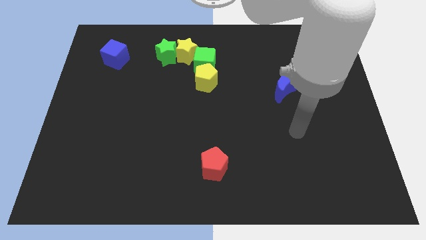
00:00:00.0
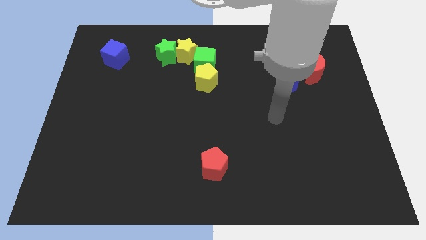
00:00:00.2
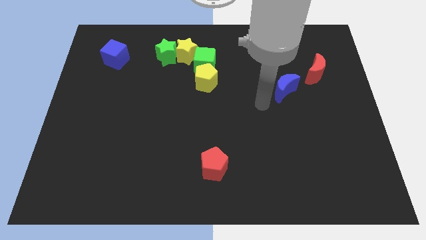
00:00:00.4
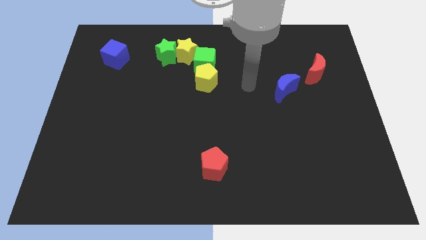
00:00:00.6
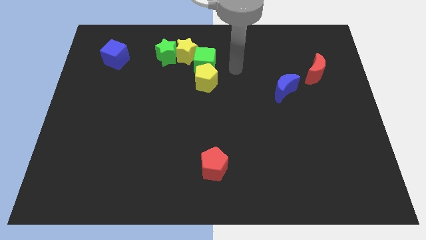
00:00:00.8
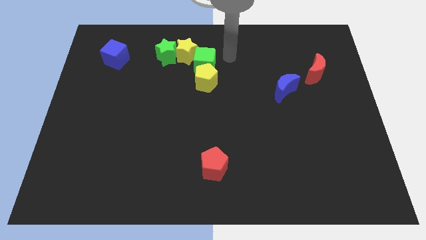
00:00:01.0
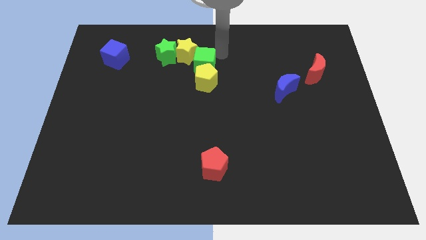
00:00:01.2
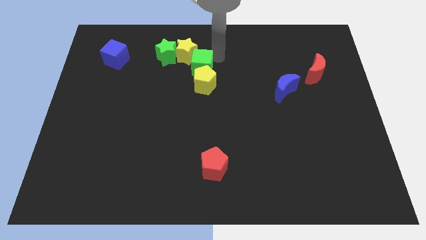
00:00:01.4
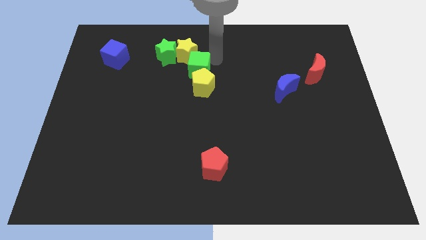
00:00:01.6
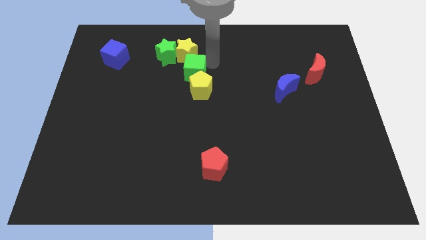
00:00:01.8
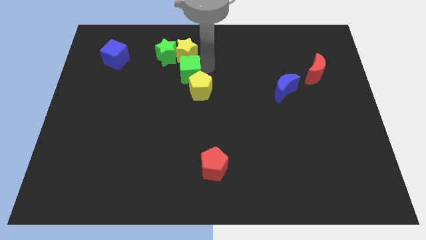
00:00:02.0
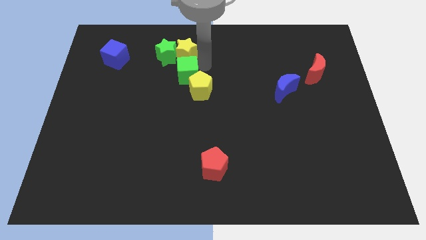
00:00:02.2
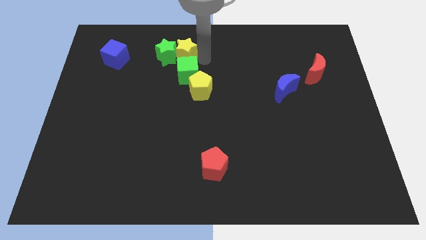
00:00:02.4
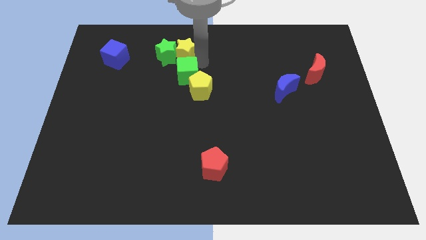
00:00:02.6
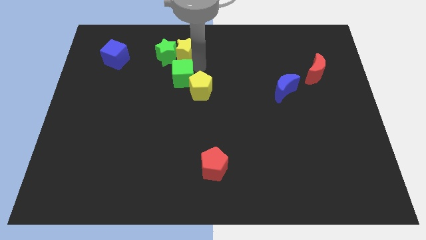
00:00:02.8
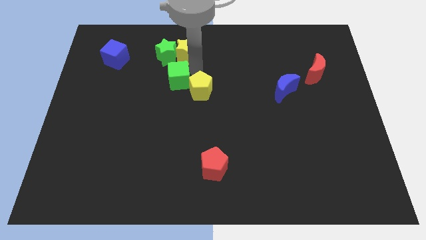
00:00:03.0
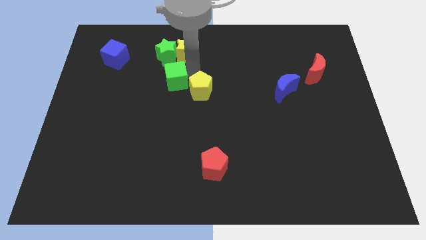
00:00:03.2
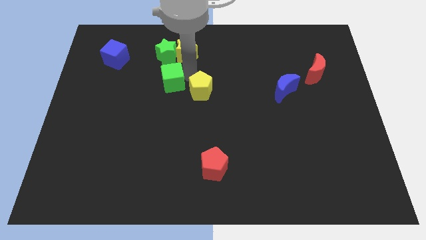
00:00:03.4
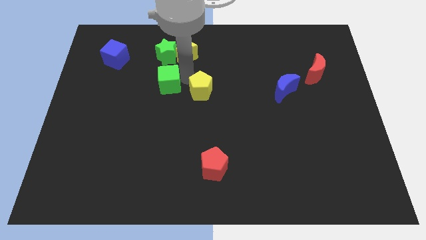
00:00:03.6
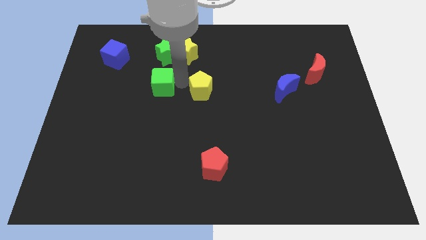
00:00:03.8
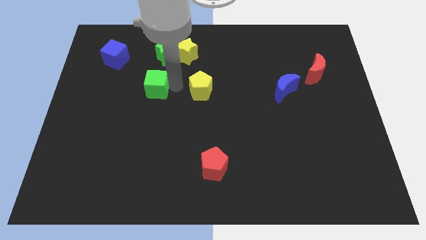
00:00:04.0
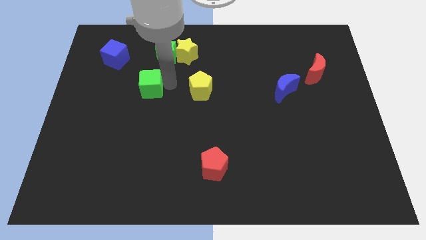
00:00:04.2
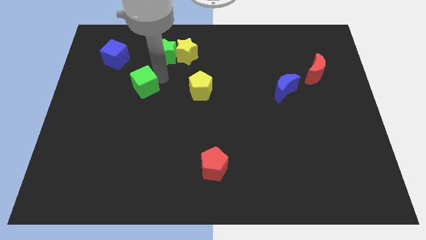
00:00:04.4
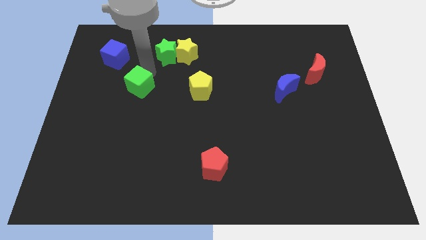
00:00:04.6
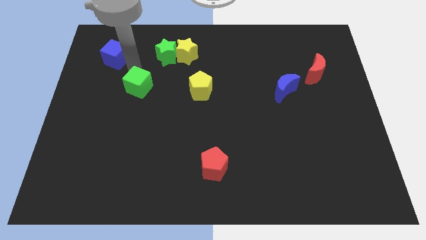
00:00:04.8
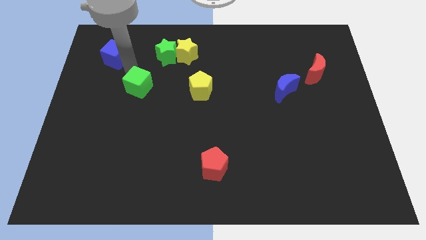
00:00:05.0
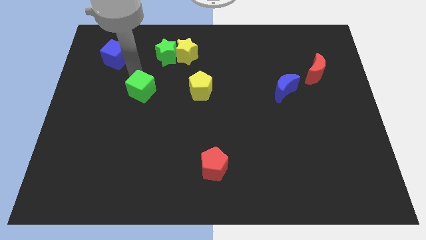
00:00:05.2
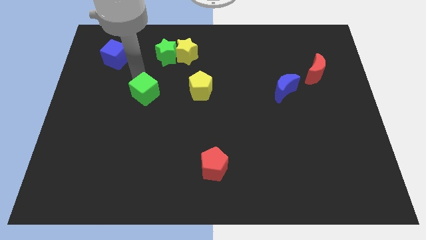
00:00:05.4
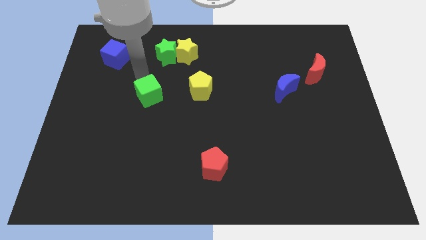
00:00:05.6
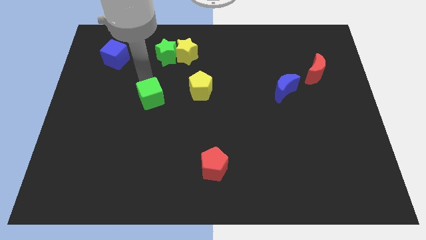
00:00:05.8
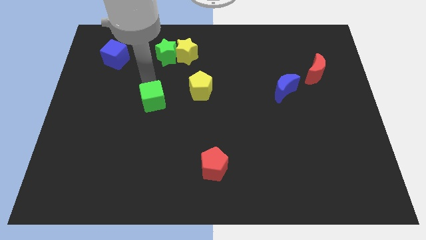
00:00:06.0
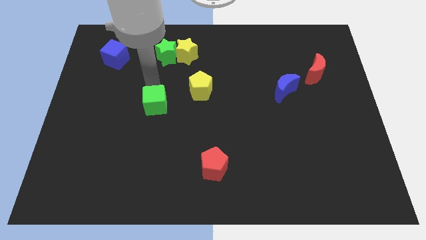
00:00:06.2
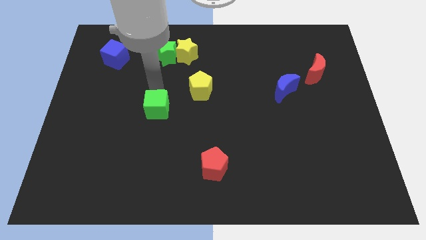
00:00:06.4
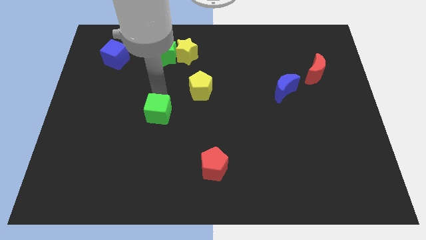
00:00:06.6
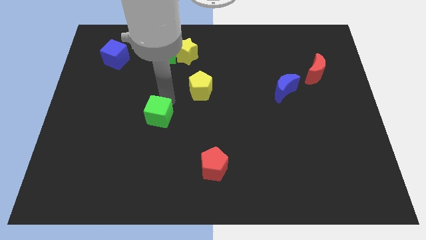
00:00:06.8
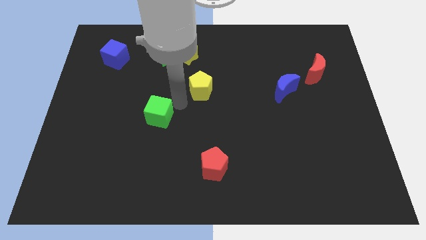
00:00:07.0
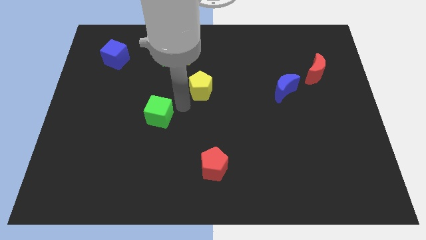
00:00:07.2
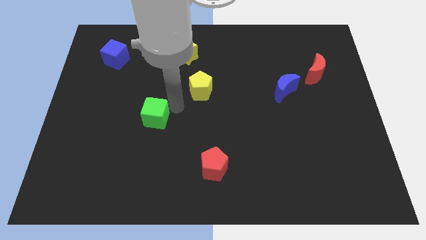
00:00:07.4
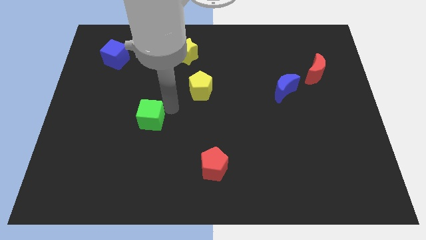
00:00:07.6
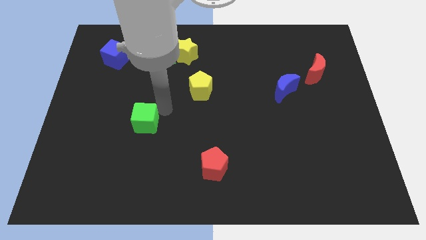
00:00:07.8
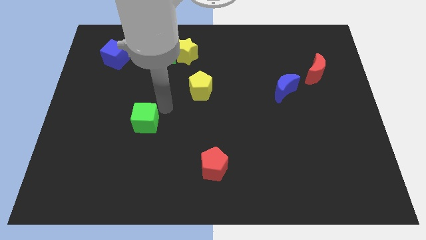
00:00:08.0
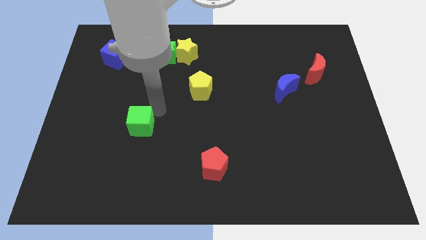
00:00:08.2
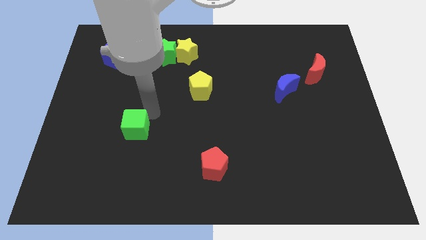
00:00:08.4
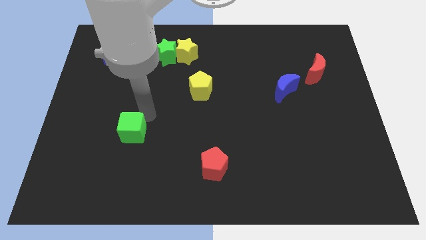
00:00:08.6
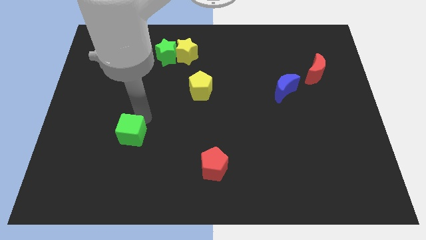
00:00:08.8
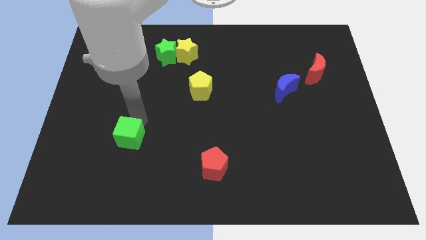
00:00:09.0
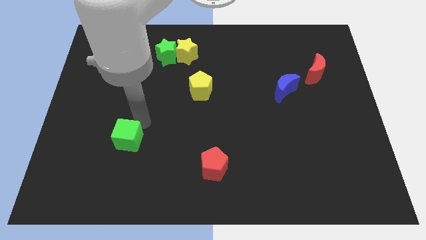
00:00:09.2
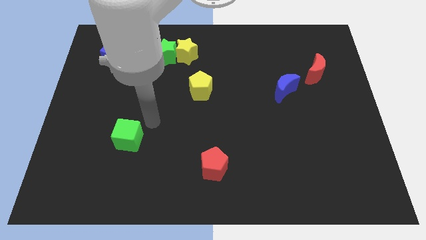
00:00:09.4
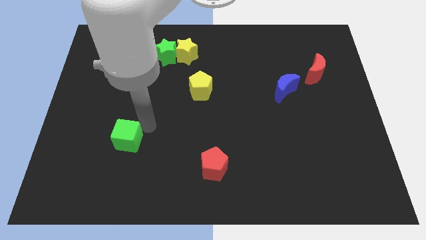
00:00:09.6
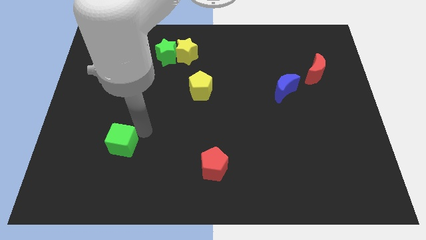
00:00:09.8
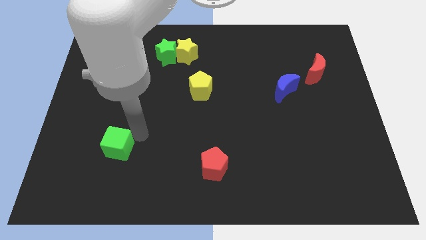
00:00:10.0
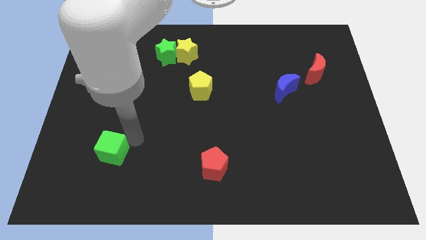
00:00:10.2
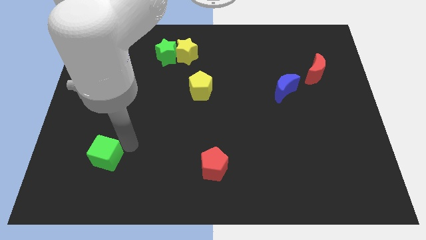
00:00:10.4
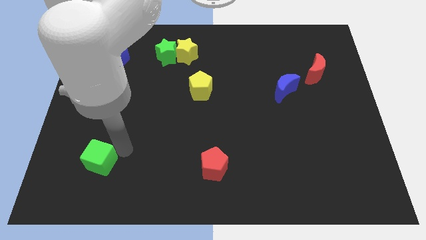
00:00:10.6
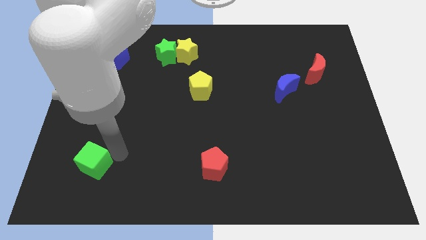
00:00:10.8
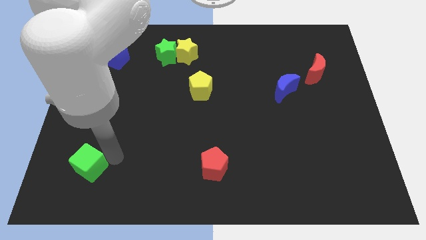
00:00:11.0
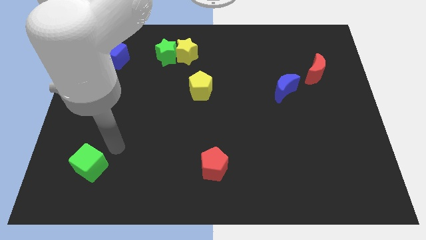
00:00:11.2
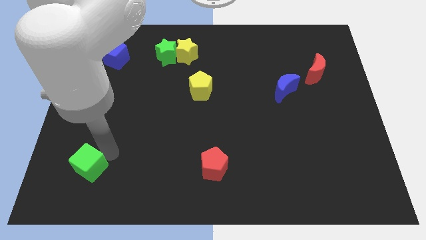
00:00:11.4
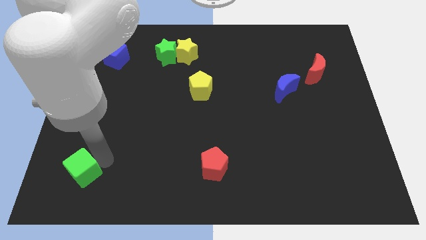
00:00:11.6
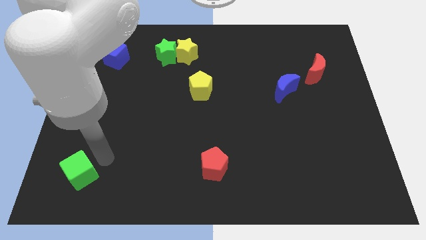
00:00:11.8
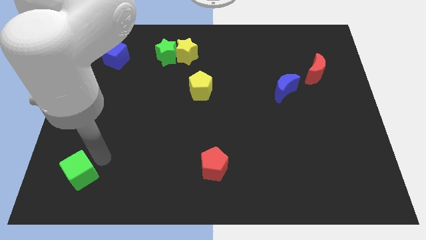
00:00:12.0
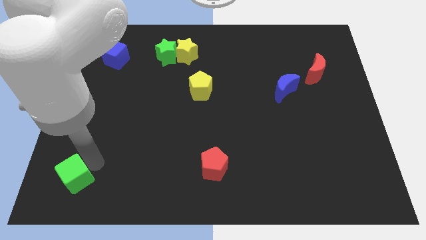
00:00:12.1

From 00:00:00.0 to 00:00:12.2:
move the green cube to the bottom left corner

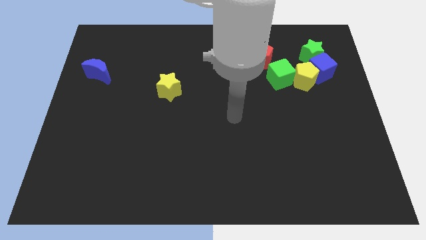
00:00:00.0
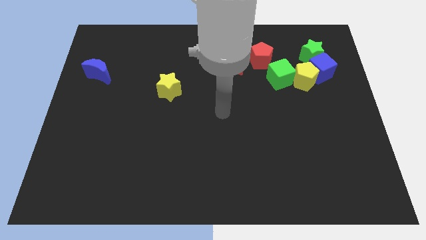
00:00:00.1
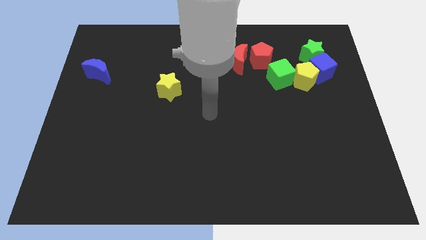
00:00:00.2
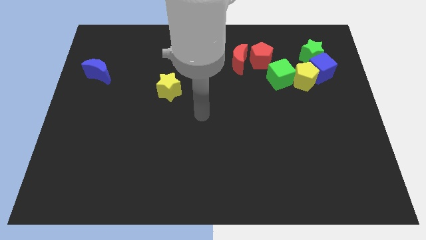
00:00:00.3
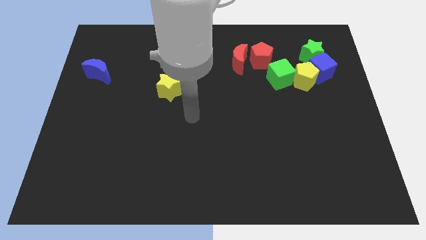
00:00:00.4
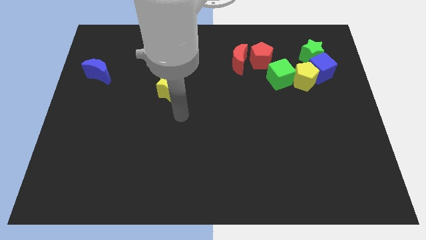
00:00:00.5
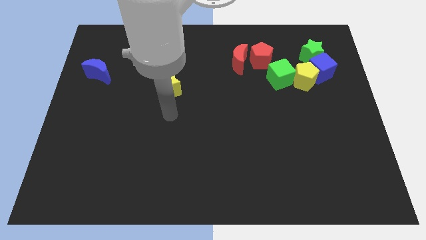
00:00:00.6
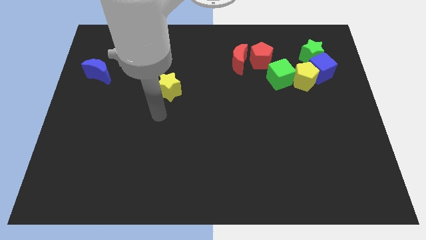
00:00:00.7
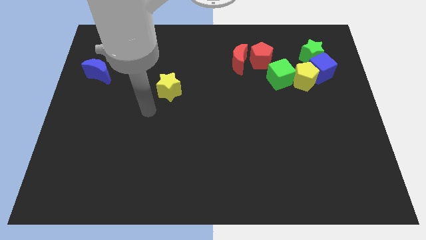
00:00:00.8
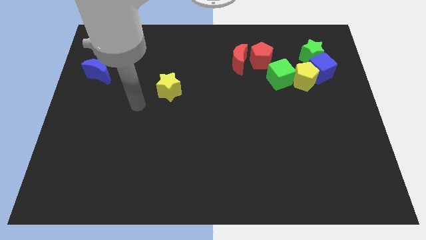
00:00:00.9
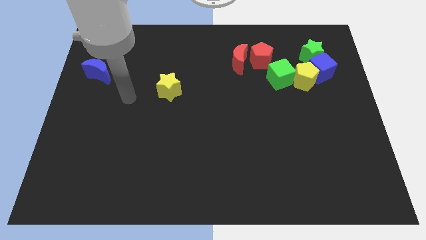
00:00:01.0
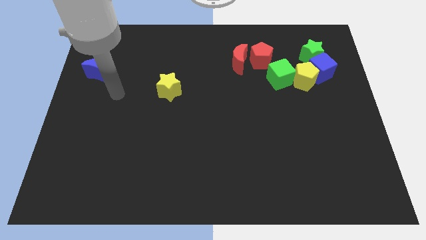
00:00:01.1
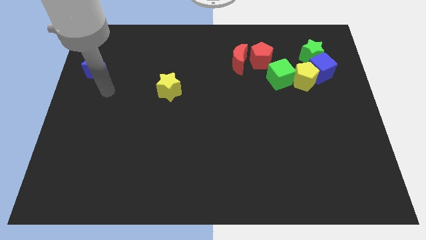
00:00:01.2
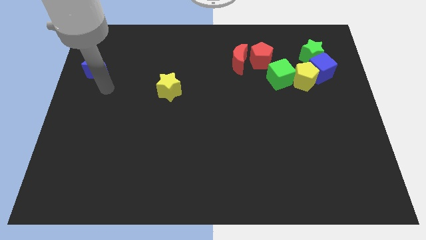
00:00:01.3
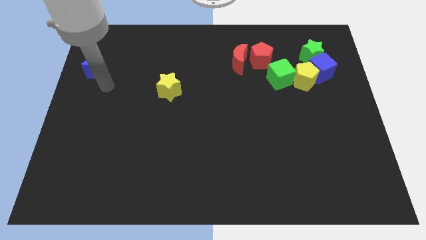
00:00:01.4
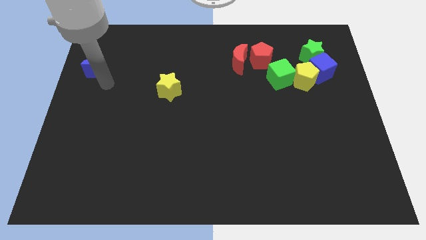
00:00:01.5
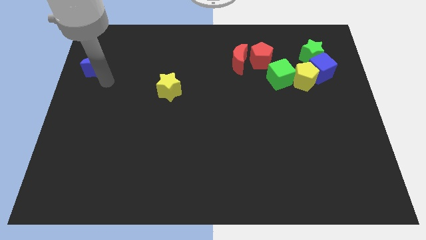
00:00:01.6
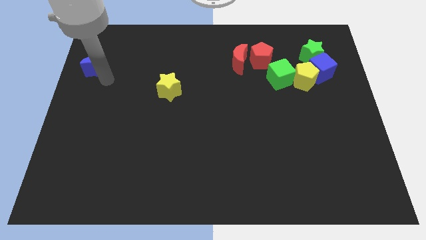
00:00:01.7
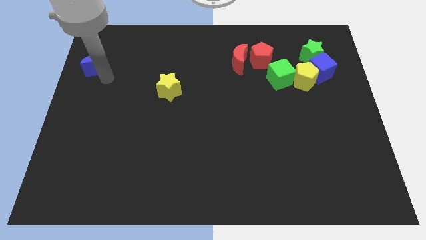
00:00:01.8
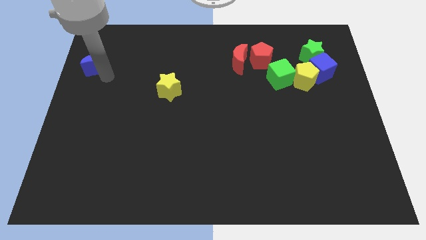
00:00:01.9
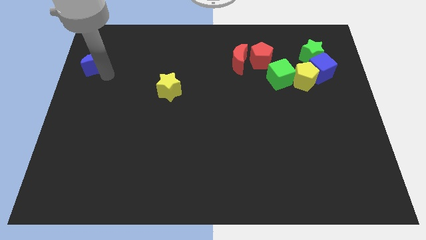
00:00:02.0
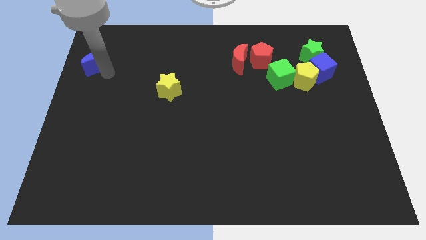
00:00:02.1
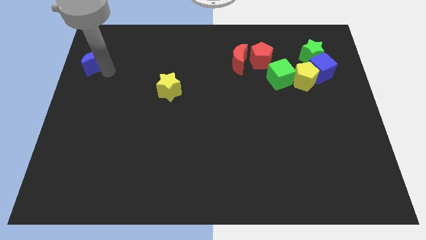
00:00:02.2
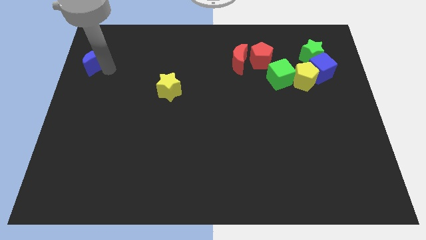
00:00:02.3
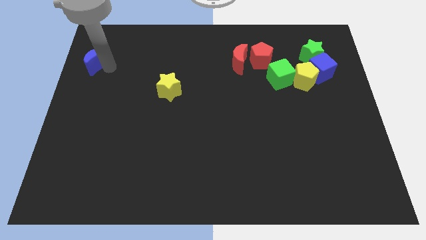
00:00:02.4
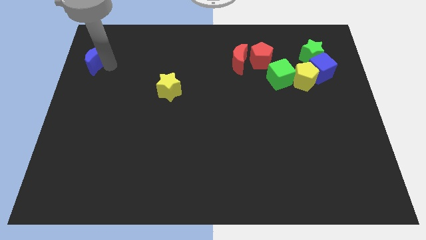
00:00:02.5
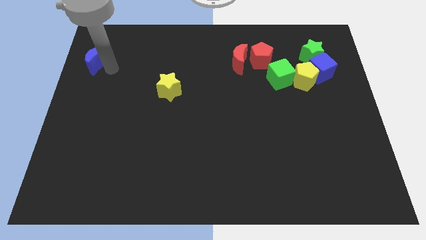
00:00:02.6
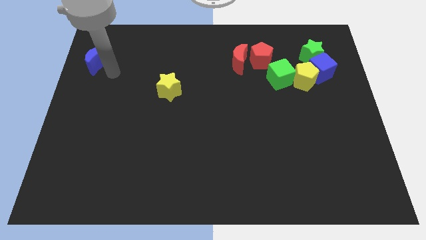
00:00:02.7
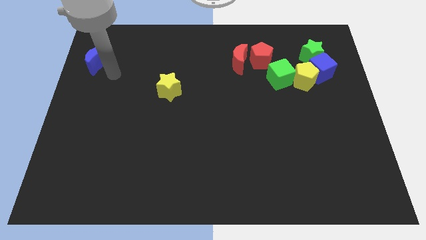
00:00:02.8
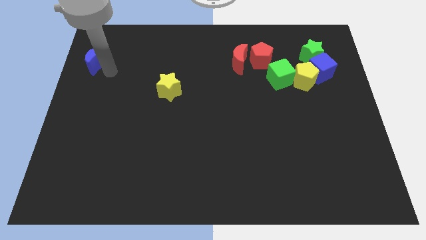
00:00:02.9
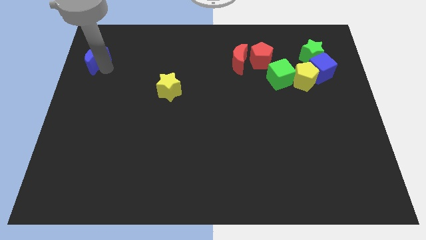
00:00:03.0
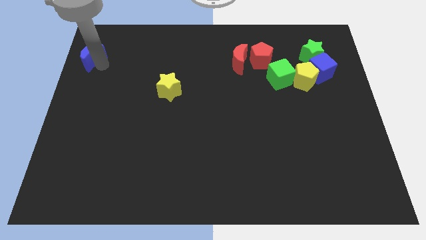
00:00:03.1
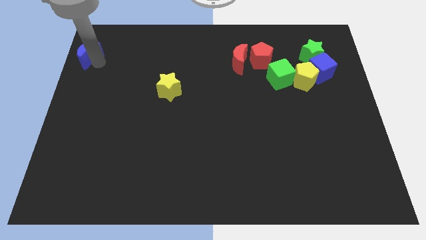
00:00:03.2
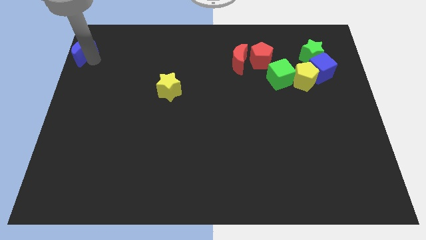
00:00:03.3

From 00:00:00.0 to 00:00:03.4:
put the blue moon to the upper left corner
